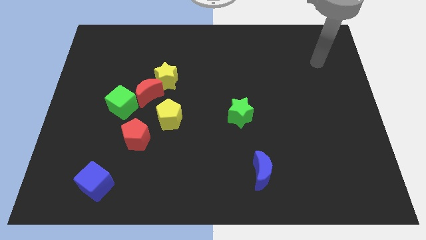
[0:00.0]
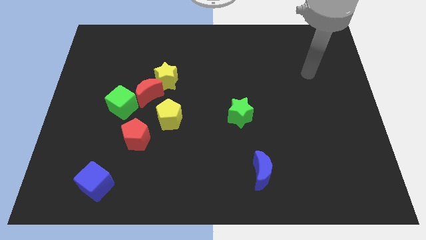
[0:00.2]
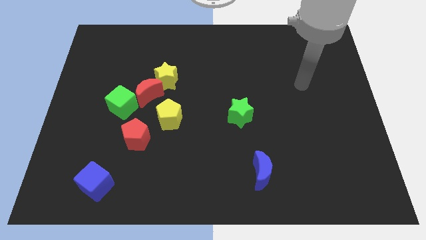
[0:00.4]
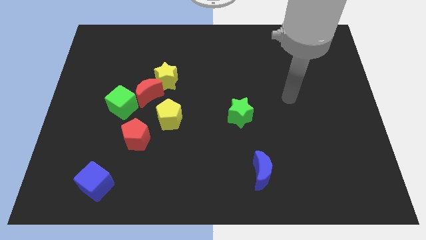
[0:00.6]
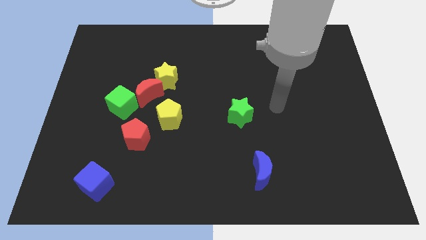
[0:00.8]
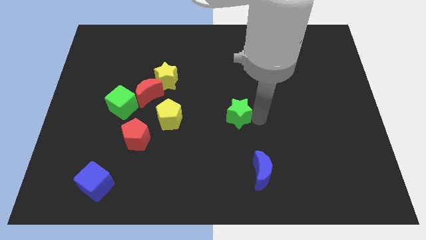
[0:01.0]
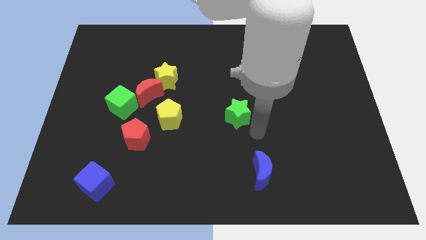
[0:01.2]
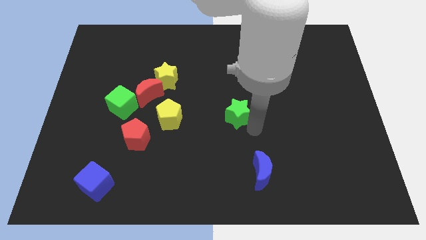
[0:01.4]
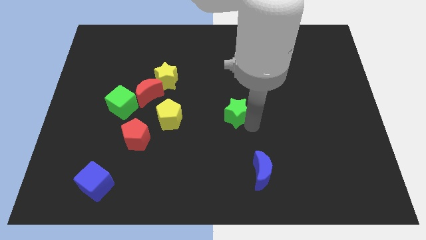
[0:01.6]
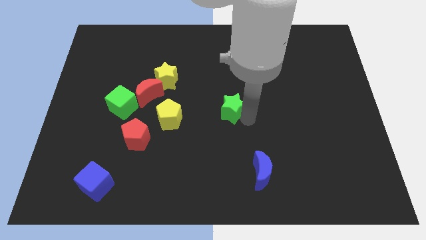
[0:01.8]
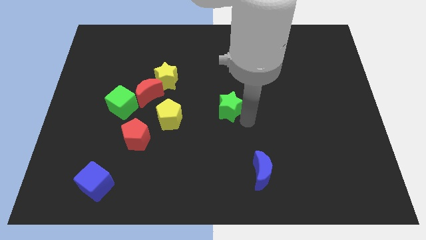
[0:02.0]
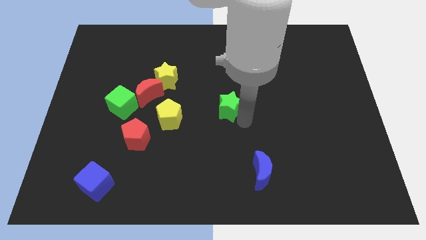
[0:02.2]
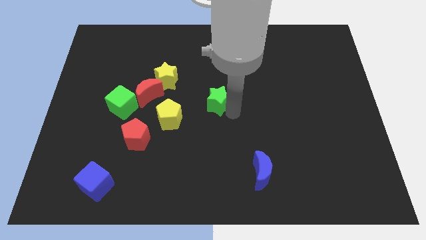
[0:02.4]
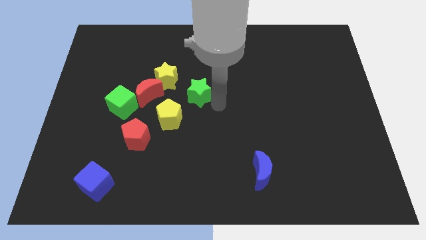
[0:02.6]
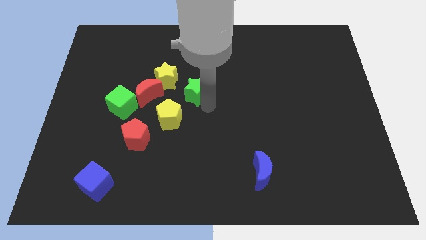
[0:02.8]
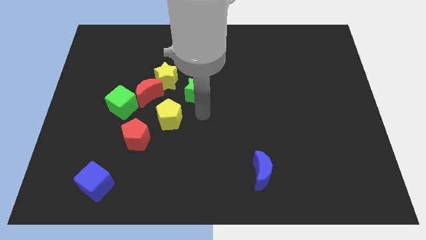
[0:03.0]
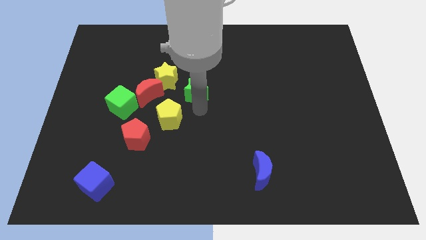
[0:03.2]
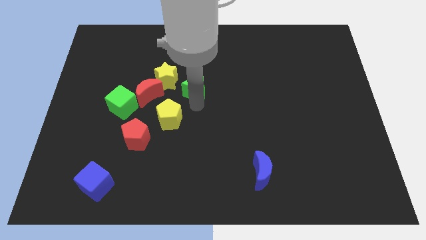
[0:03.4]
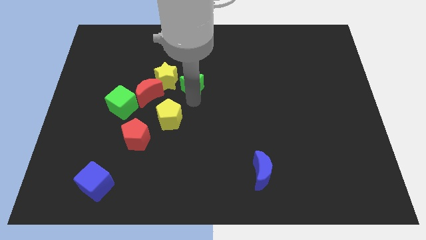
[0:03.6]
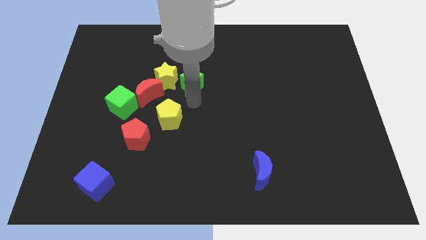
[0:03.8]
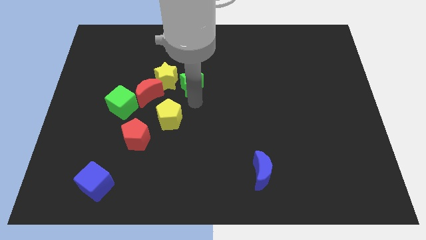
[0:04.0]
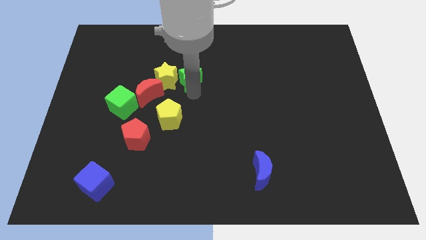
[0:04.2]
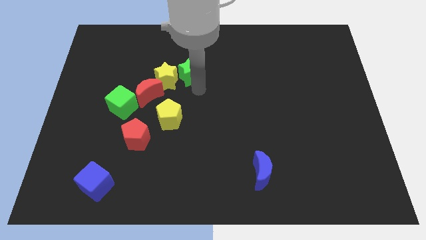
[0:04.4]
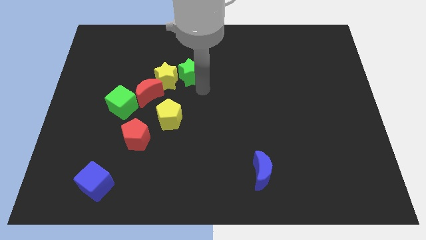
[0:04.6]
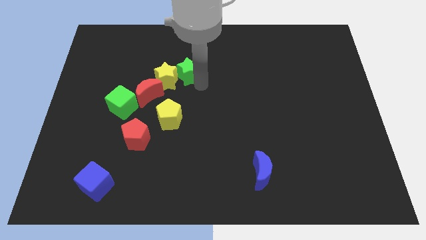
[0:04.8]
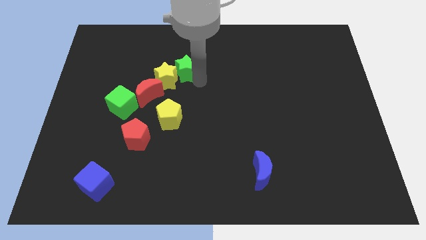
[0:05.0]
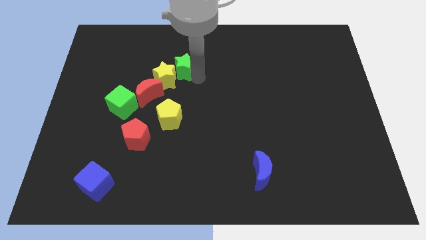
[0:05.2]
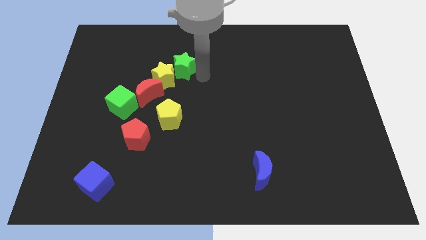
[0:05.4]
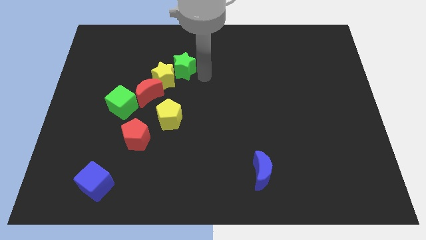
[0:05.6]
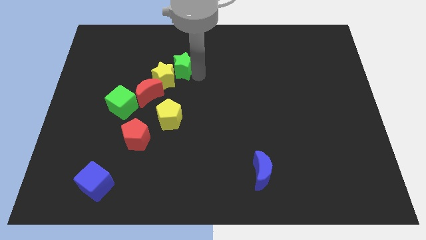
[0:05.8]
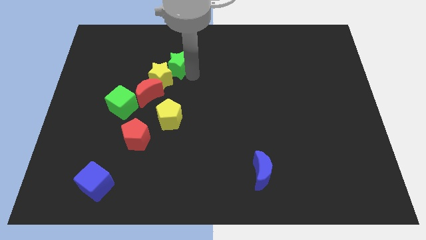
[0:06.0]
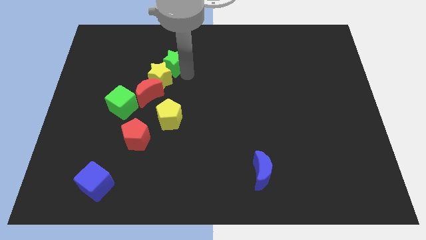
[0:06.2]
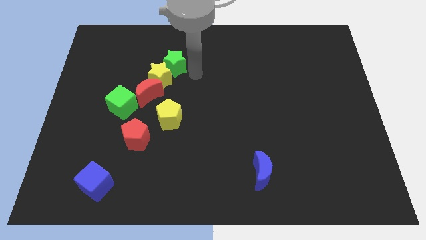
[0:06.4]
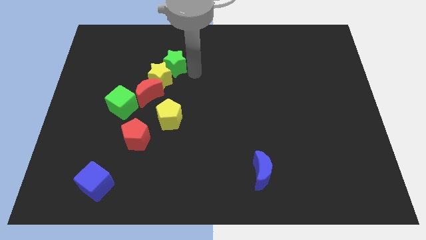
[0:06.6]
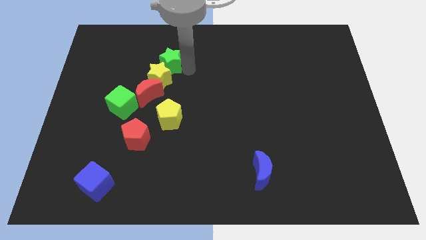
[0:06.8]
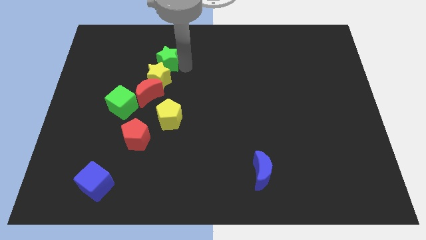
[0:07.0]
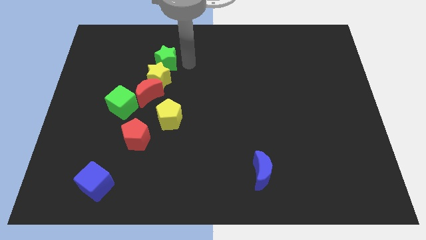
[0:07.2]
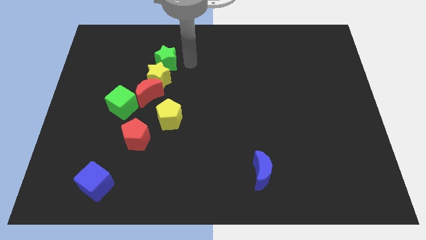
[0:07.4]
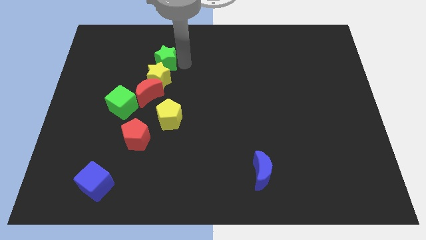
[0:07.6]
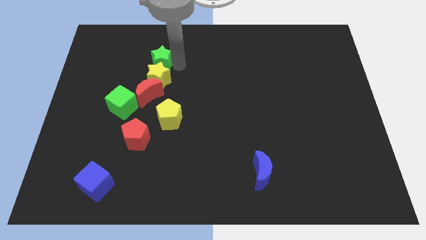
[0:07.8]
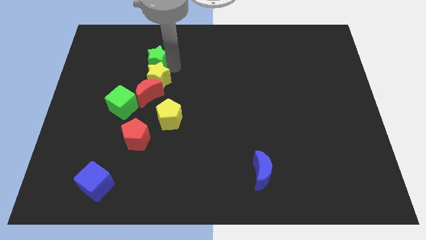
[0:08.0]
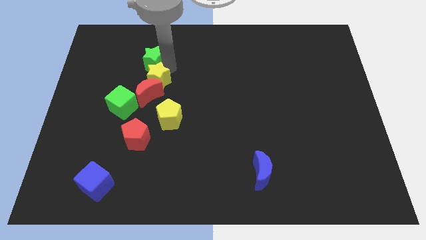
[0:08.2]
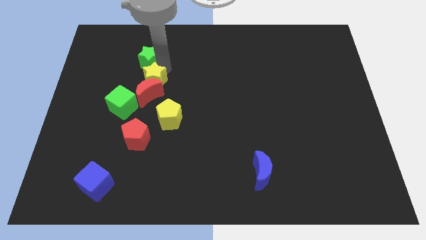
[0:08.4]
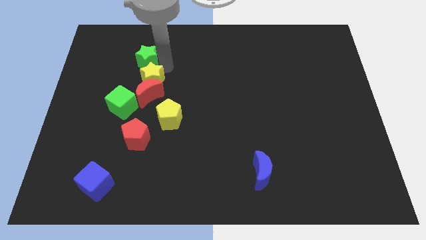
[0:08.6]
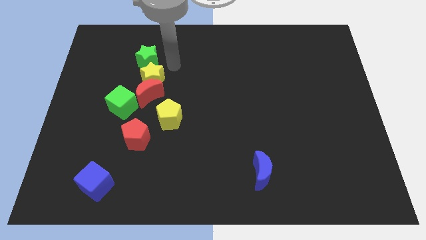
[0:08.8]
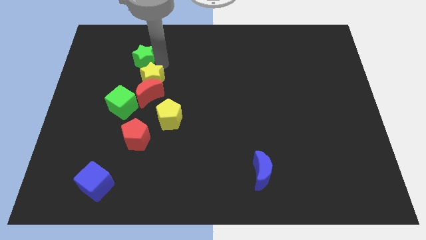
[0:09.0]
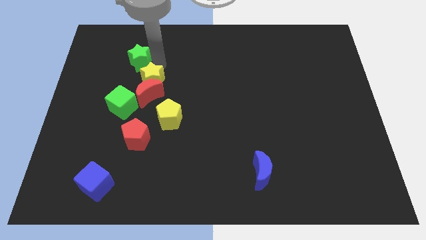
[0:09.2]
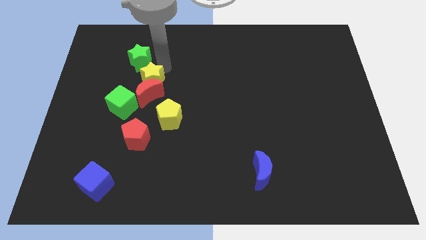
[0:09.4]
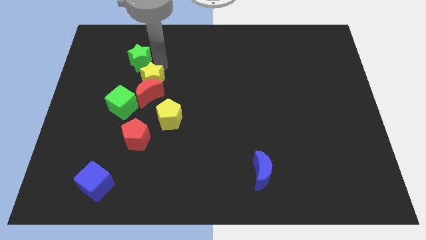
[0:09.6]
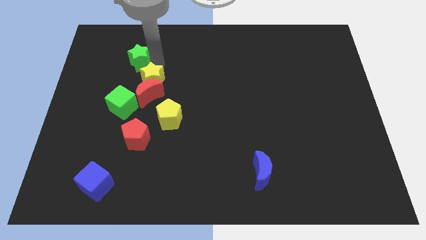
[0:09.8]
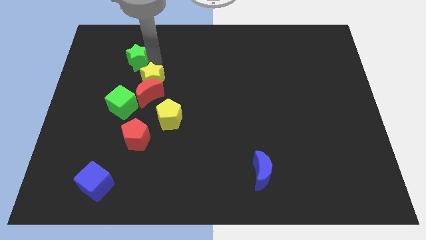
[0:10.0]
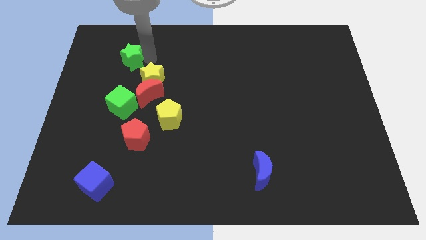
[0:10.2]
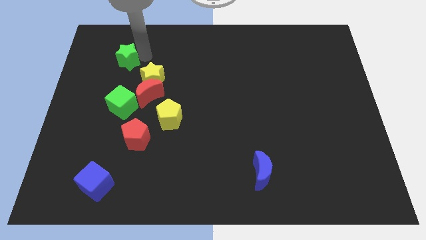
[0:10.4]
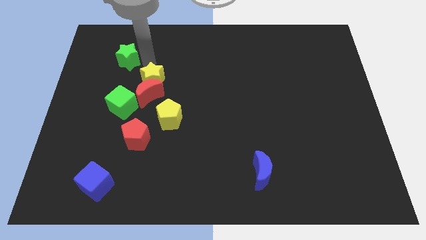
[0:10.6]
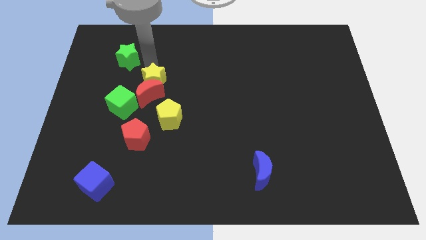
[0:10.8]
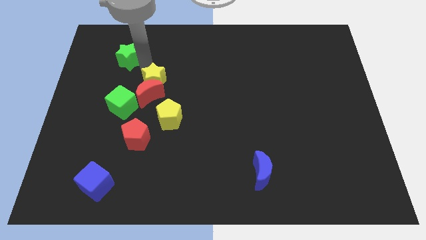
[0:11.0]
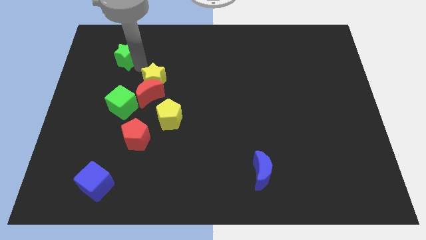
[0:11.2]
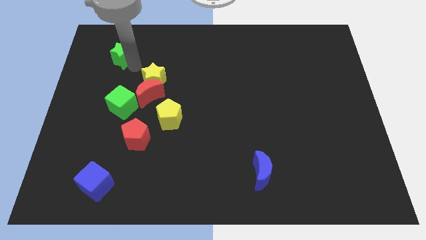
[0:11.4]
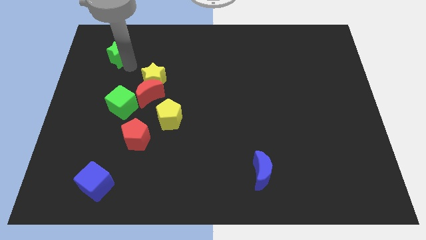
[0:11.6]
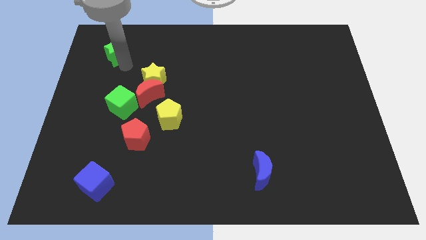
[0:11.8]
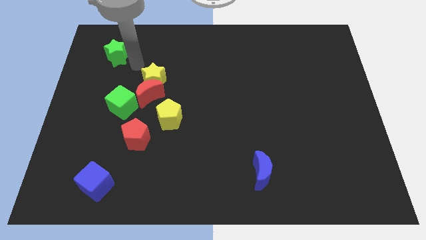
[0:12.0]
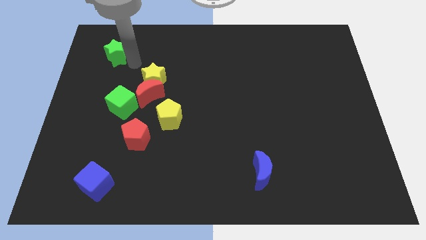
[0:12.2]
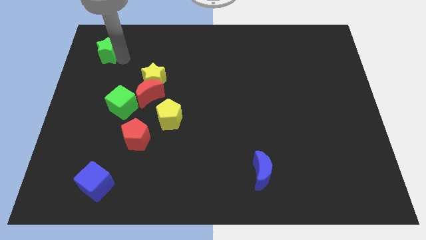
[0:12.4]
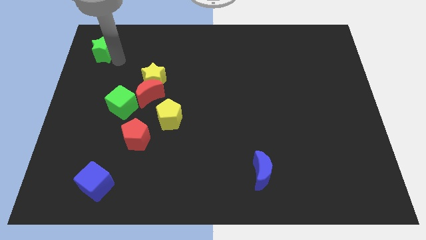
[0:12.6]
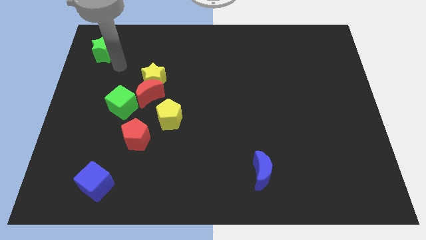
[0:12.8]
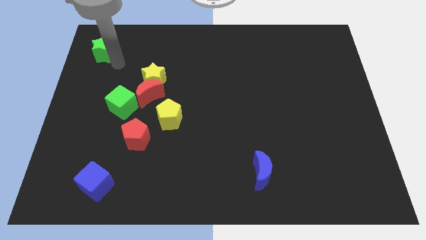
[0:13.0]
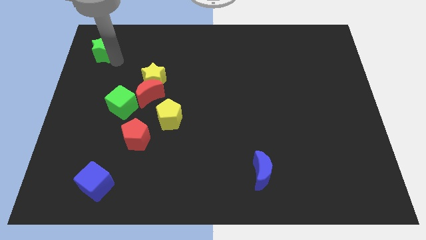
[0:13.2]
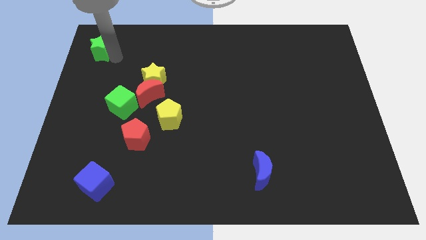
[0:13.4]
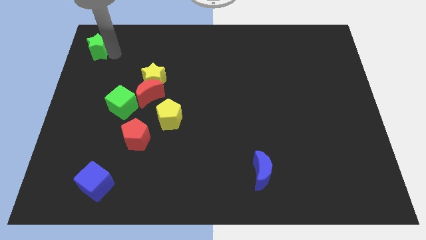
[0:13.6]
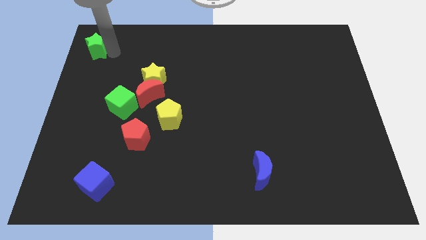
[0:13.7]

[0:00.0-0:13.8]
slide the green star to the top left corner
